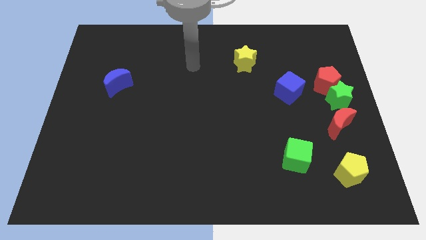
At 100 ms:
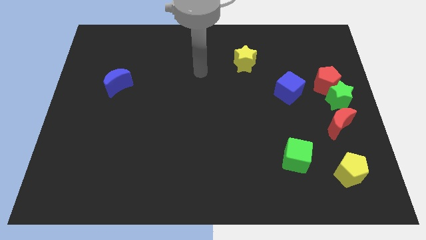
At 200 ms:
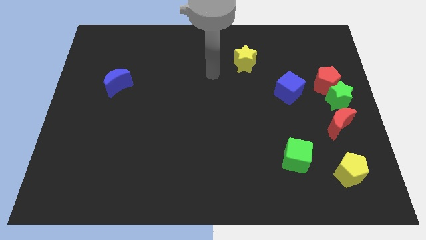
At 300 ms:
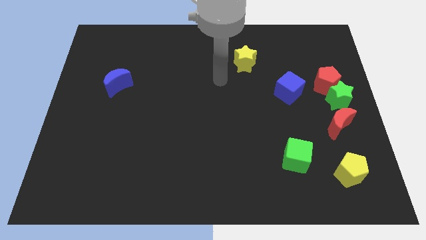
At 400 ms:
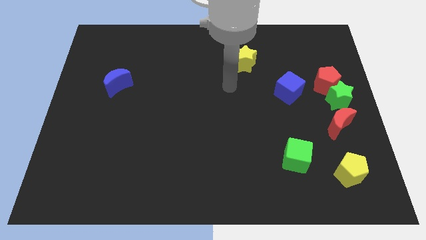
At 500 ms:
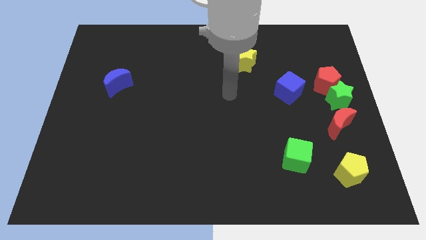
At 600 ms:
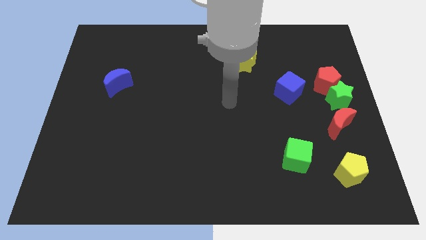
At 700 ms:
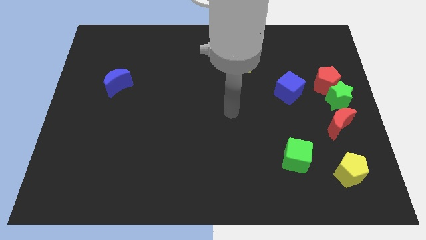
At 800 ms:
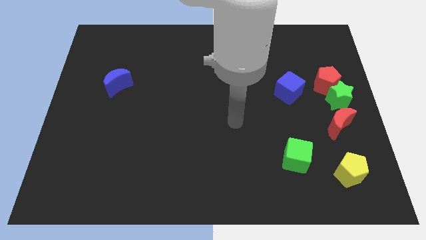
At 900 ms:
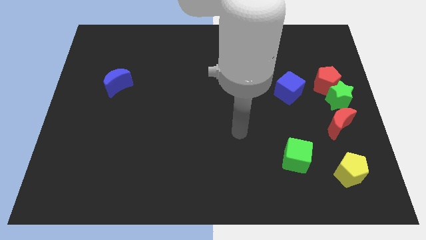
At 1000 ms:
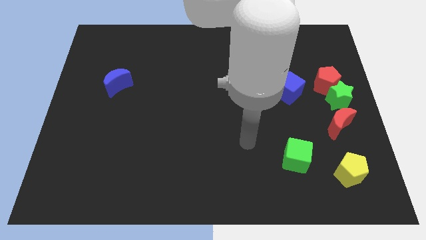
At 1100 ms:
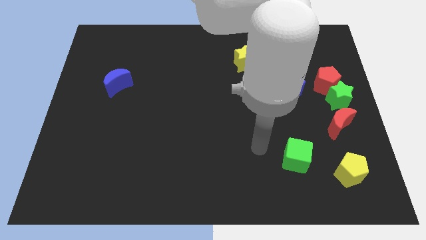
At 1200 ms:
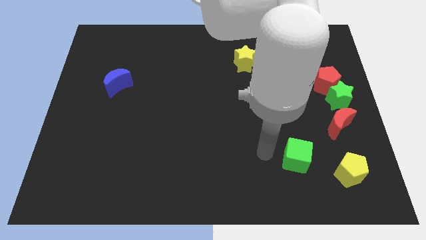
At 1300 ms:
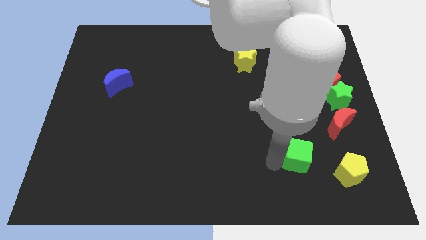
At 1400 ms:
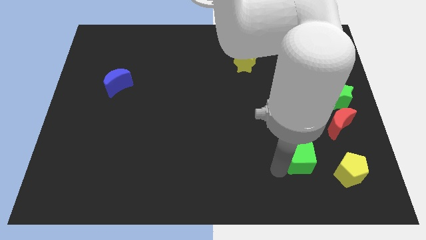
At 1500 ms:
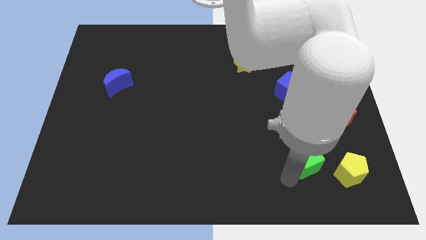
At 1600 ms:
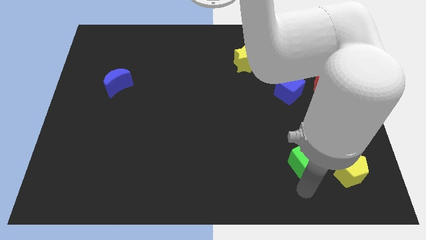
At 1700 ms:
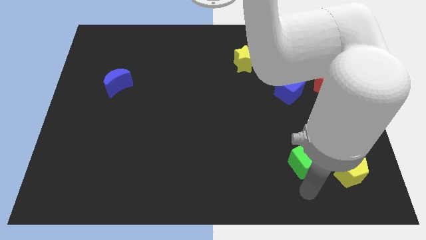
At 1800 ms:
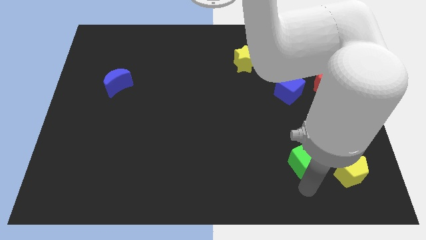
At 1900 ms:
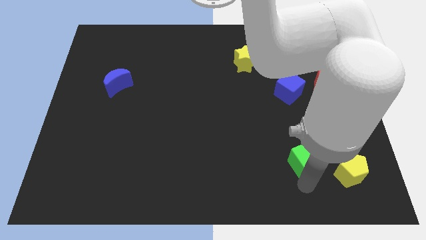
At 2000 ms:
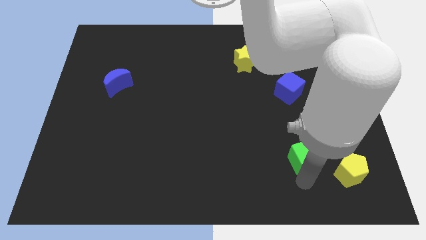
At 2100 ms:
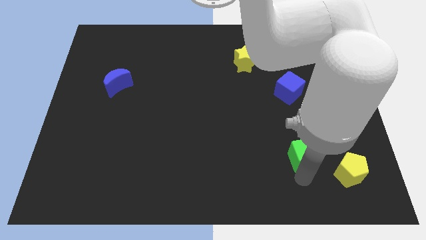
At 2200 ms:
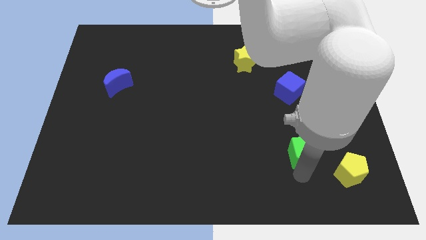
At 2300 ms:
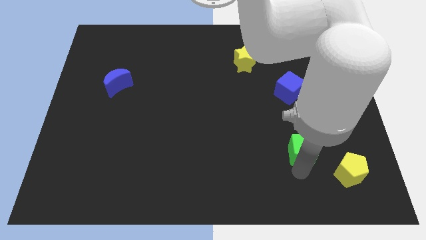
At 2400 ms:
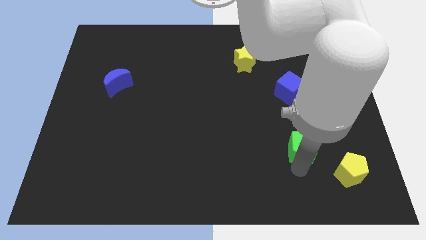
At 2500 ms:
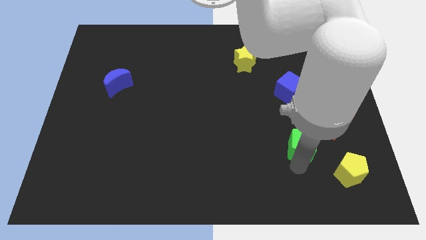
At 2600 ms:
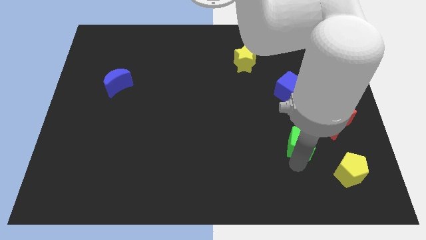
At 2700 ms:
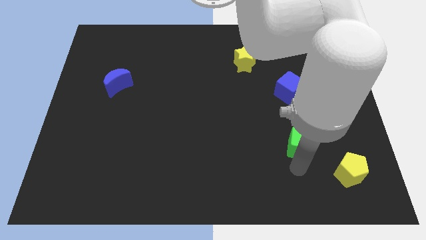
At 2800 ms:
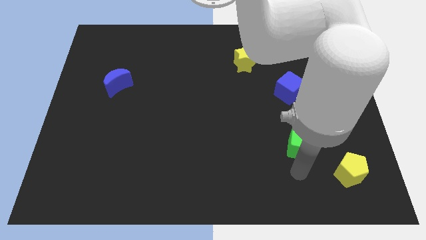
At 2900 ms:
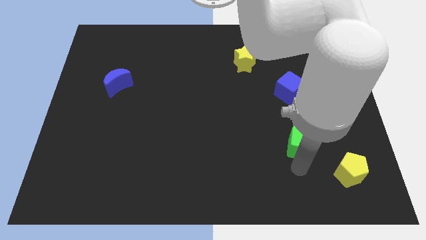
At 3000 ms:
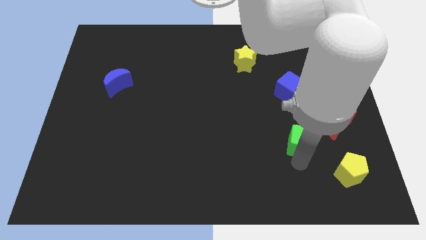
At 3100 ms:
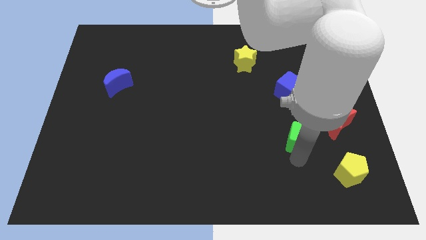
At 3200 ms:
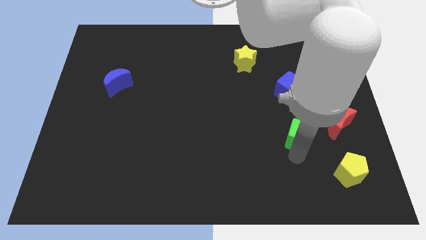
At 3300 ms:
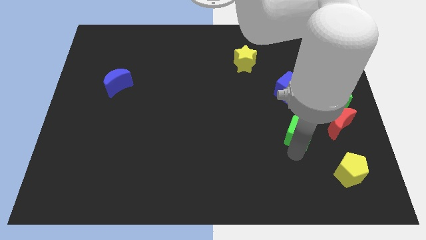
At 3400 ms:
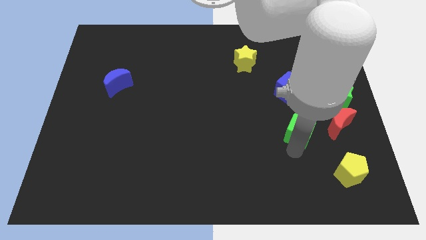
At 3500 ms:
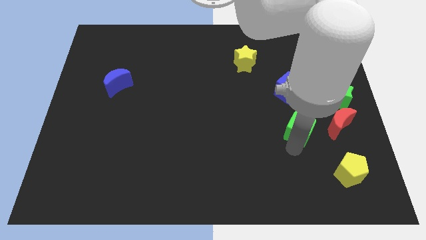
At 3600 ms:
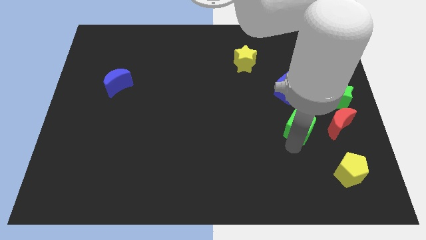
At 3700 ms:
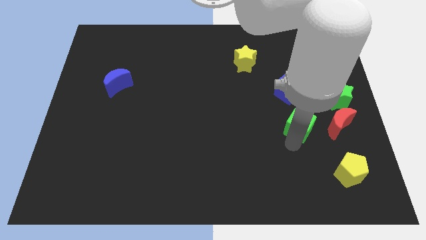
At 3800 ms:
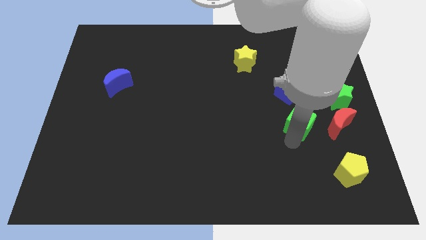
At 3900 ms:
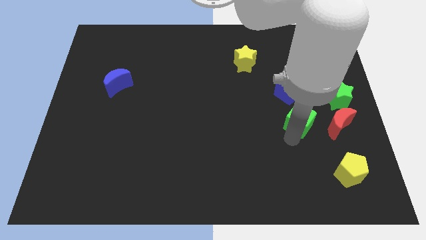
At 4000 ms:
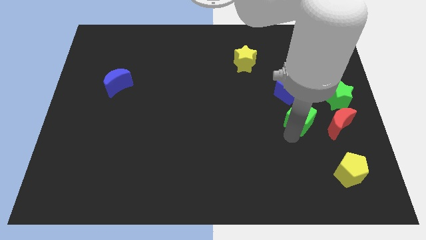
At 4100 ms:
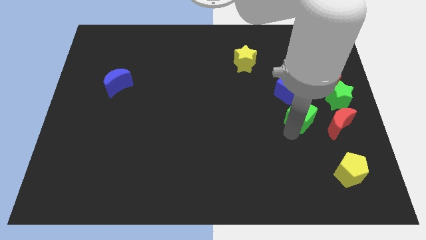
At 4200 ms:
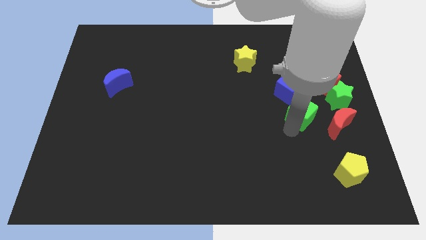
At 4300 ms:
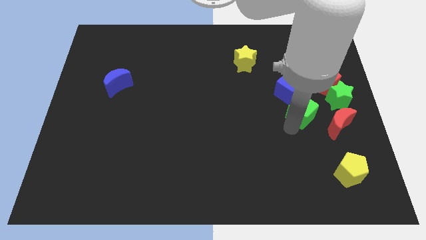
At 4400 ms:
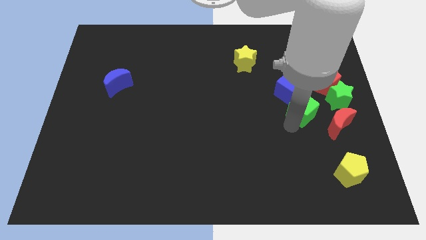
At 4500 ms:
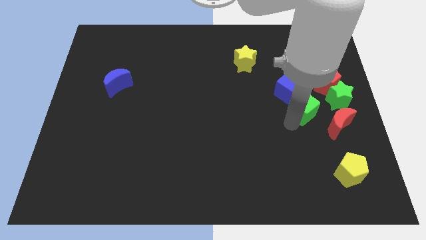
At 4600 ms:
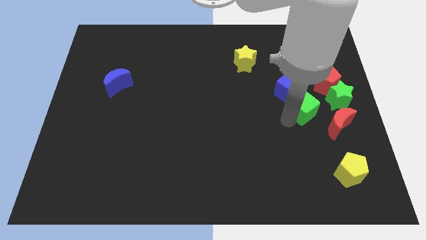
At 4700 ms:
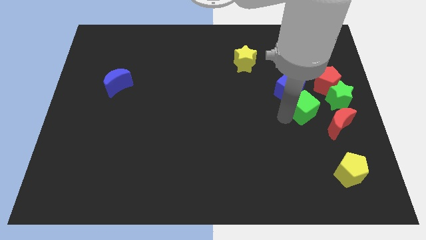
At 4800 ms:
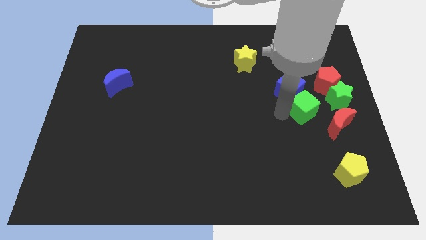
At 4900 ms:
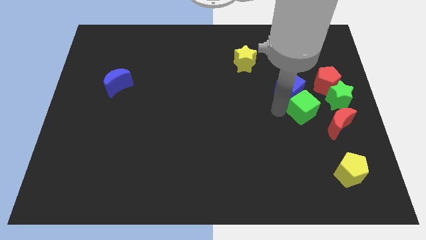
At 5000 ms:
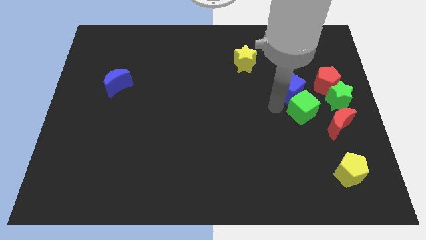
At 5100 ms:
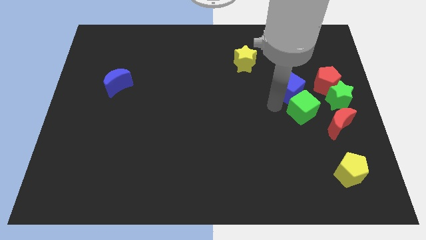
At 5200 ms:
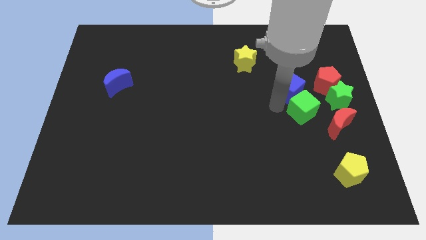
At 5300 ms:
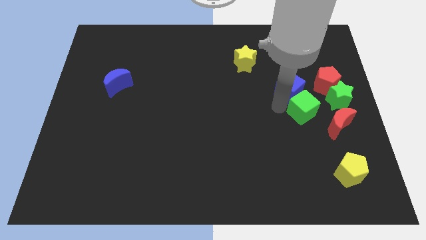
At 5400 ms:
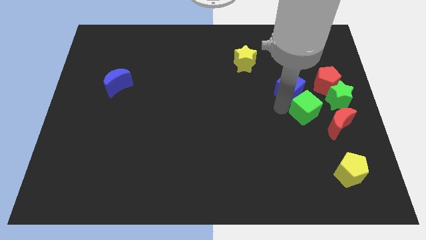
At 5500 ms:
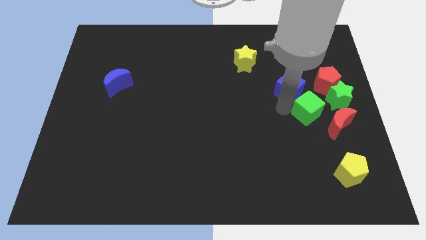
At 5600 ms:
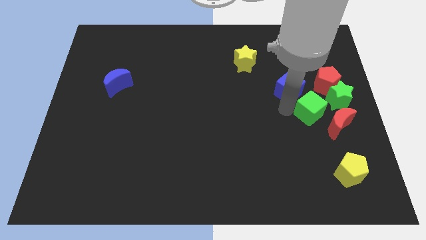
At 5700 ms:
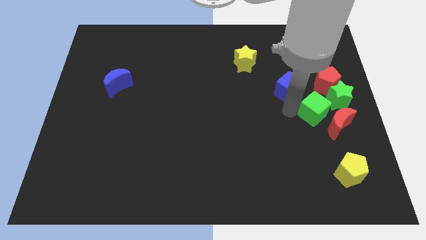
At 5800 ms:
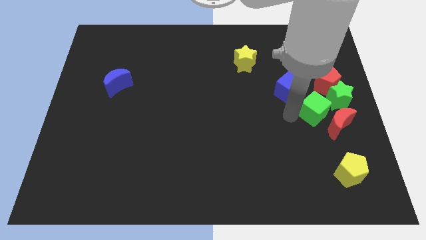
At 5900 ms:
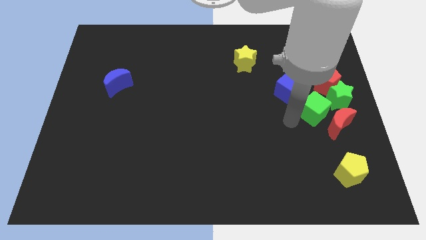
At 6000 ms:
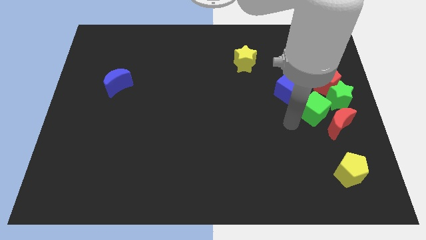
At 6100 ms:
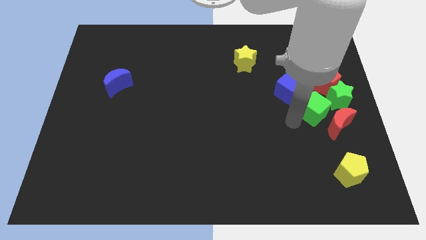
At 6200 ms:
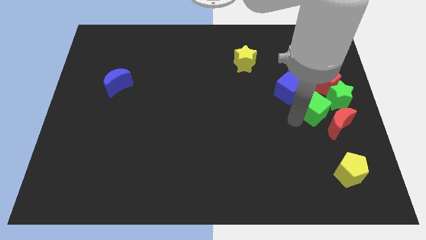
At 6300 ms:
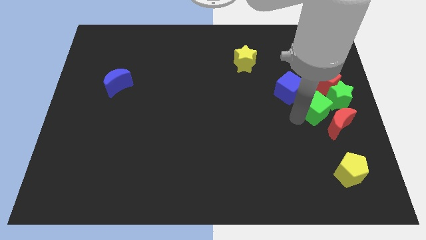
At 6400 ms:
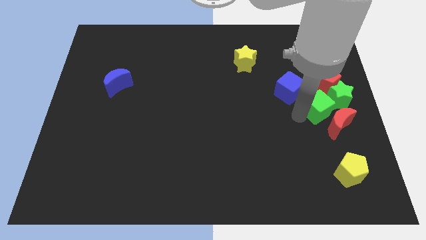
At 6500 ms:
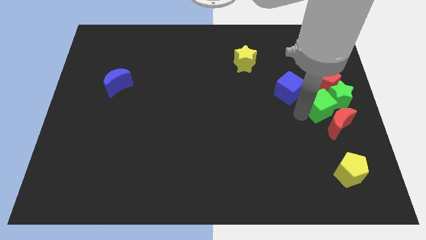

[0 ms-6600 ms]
push the green cube close to the green star

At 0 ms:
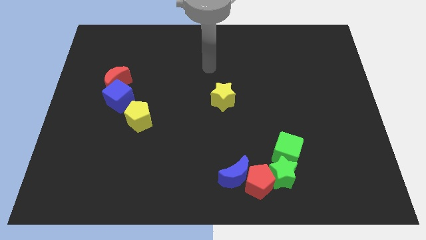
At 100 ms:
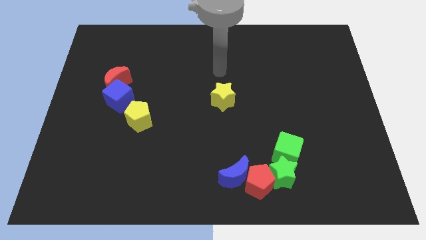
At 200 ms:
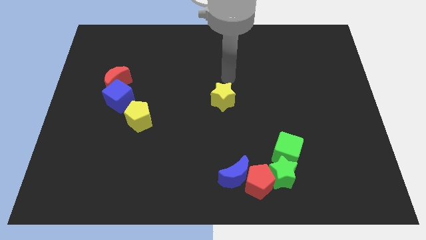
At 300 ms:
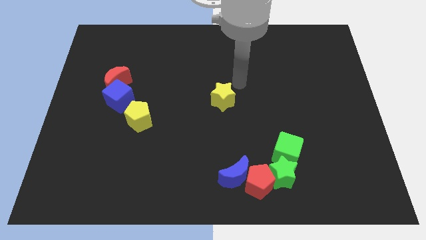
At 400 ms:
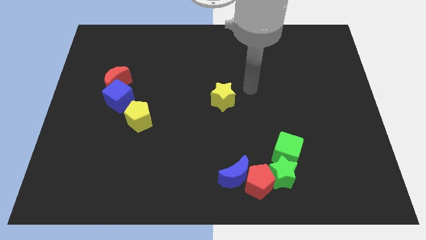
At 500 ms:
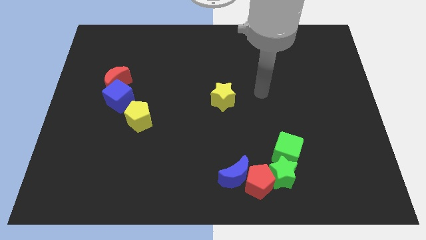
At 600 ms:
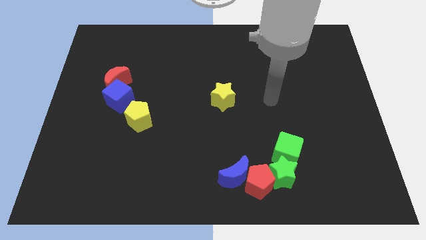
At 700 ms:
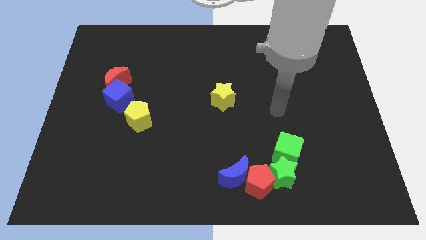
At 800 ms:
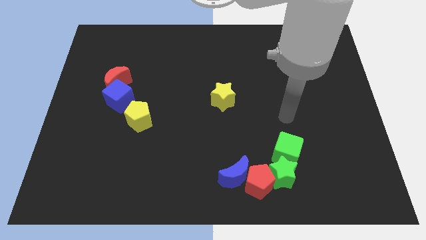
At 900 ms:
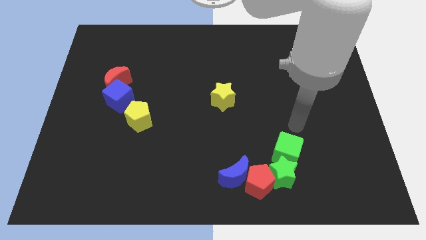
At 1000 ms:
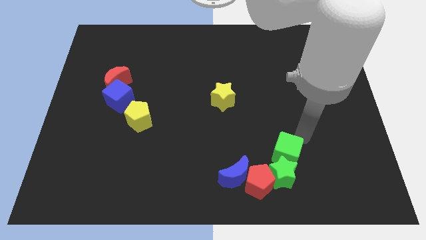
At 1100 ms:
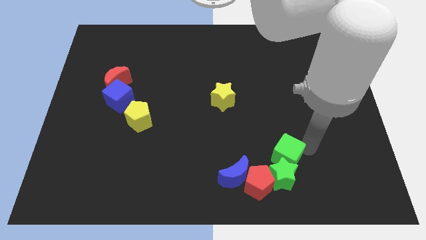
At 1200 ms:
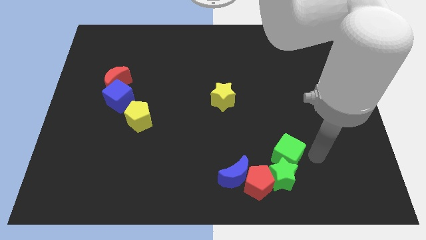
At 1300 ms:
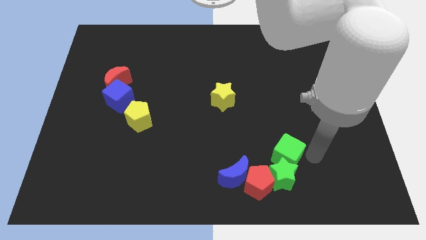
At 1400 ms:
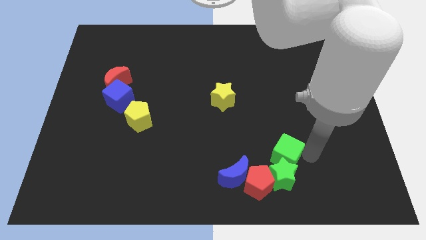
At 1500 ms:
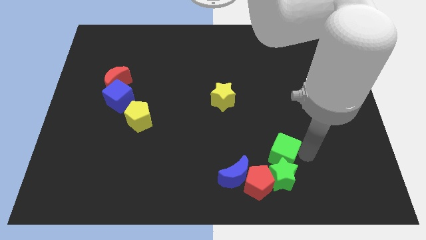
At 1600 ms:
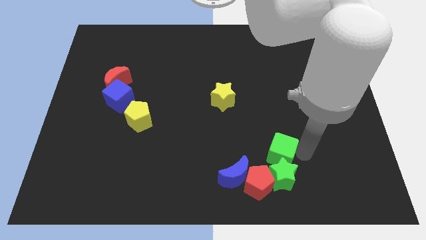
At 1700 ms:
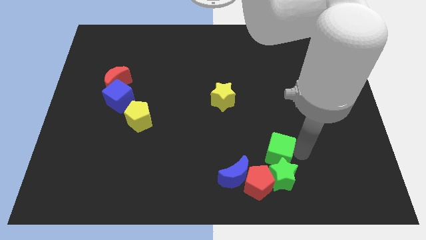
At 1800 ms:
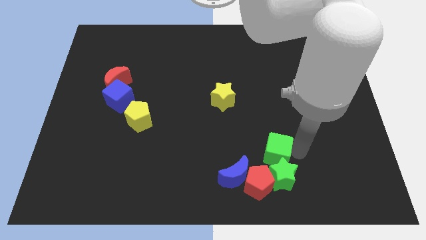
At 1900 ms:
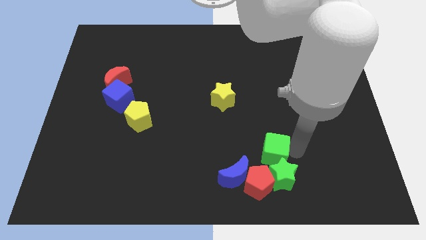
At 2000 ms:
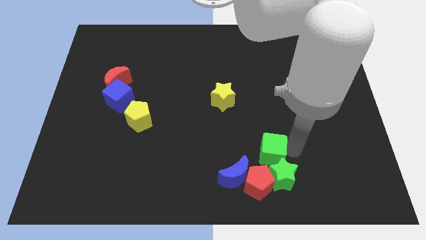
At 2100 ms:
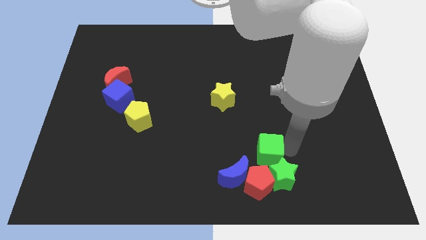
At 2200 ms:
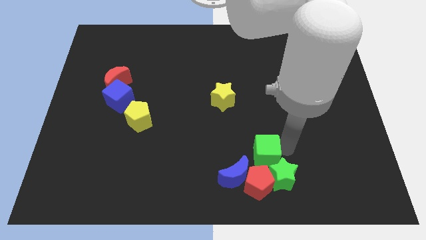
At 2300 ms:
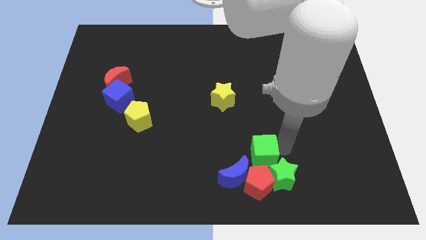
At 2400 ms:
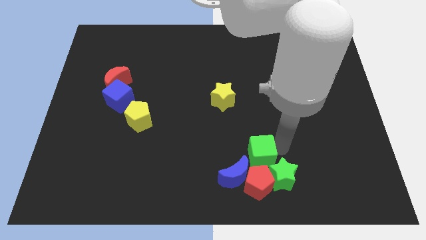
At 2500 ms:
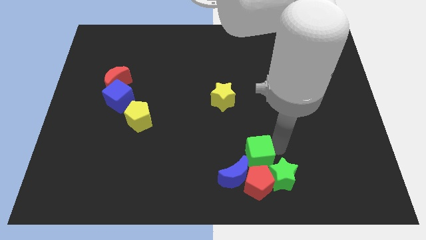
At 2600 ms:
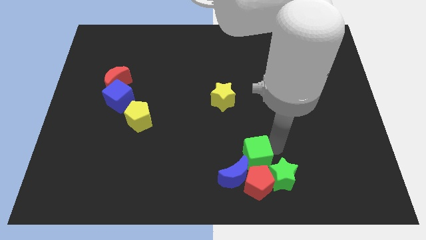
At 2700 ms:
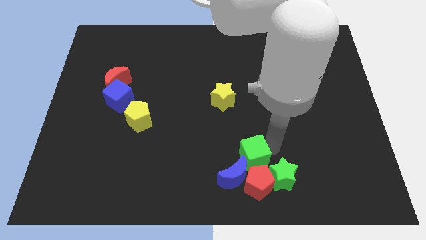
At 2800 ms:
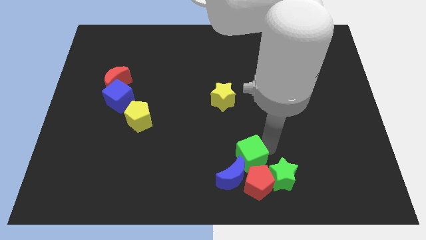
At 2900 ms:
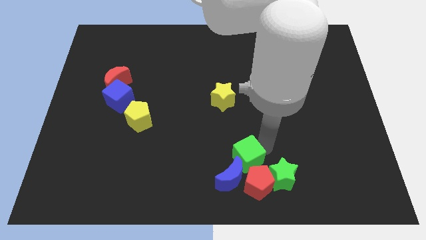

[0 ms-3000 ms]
slide the green cube to the blue moon
